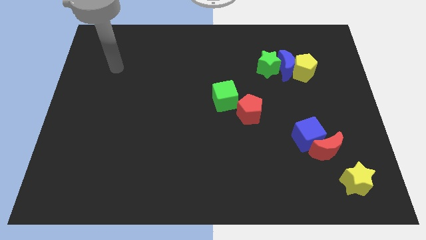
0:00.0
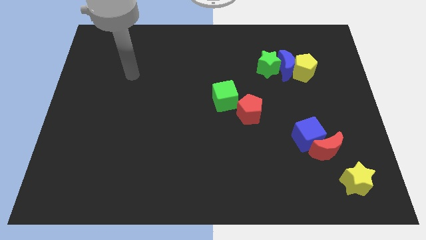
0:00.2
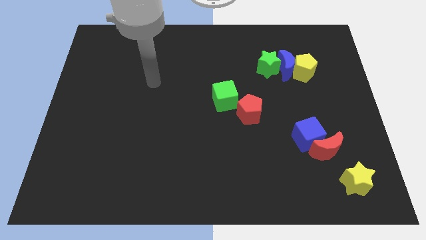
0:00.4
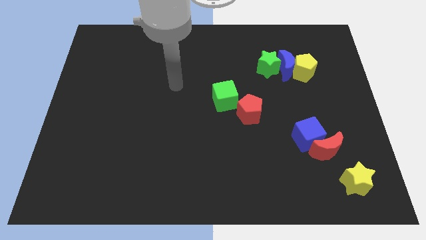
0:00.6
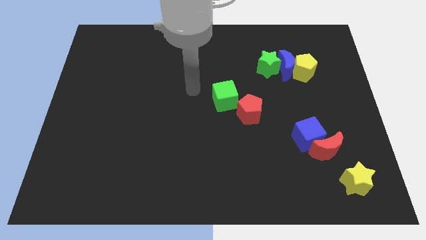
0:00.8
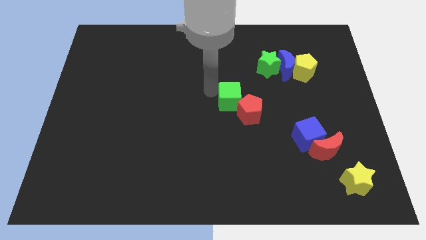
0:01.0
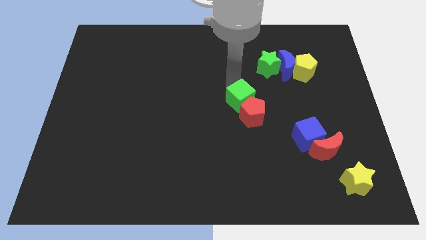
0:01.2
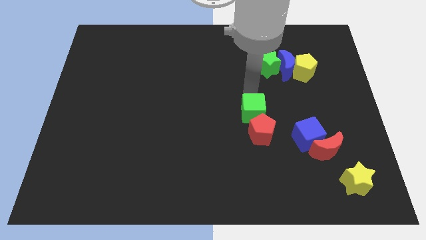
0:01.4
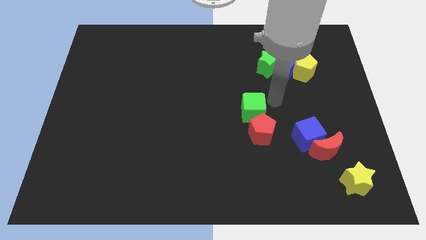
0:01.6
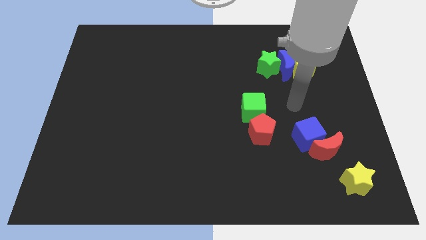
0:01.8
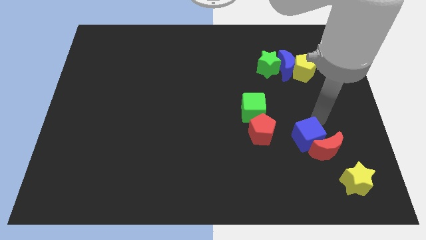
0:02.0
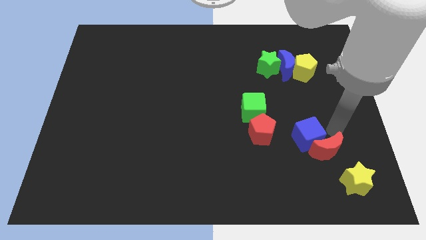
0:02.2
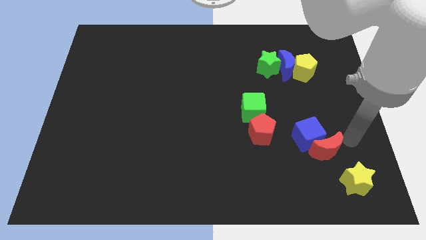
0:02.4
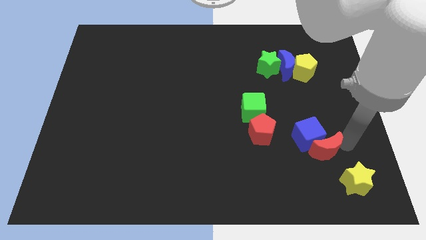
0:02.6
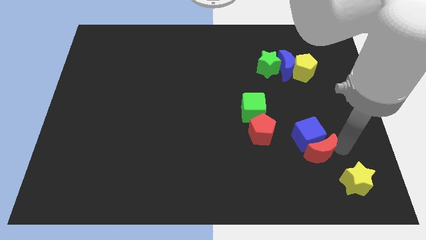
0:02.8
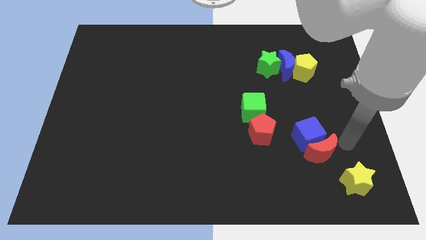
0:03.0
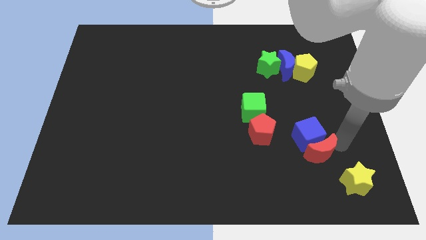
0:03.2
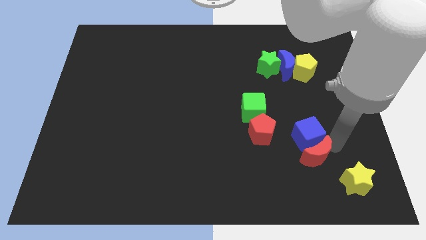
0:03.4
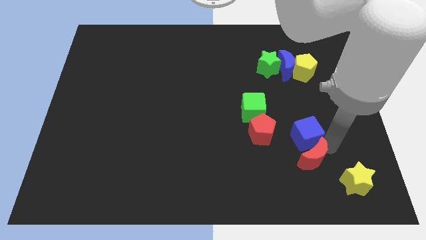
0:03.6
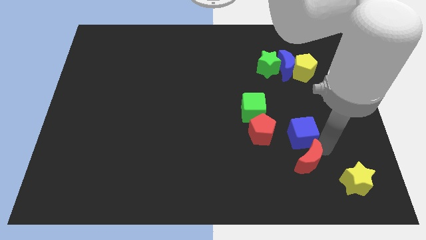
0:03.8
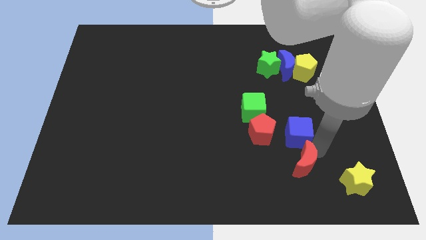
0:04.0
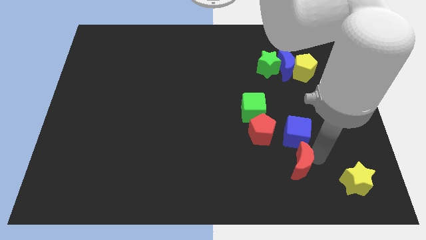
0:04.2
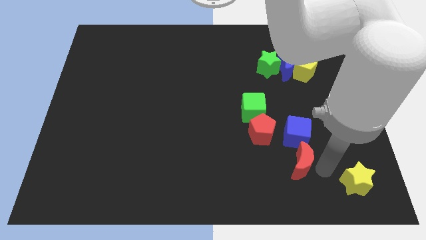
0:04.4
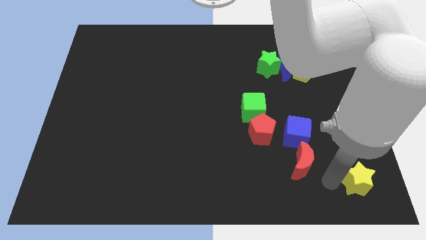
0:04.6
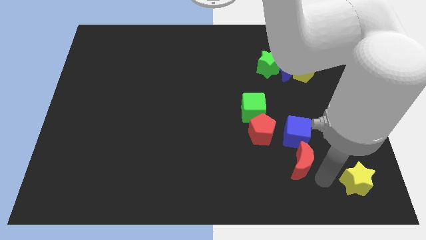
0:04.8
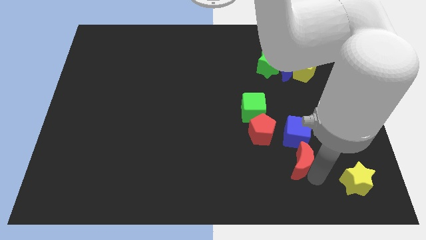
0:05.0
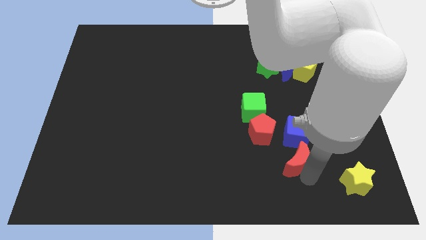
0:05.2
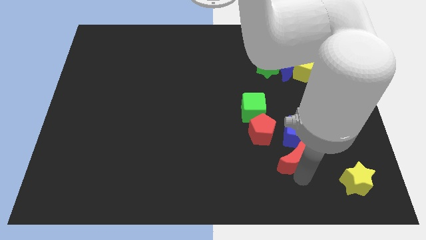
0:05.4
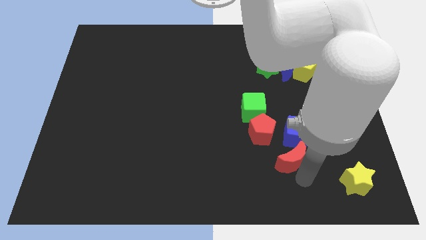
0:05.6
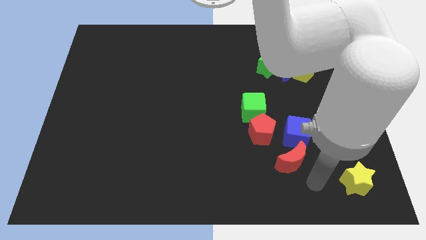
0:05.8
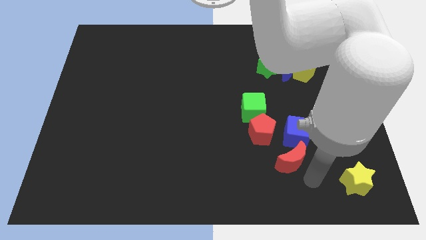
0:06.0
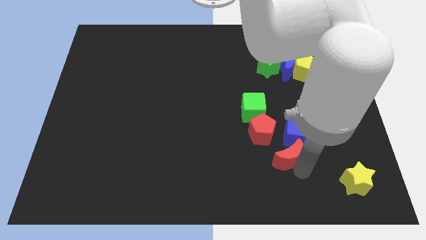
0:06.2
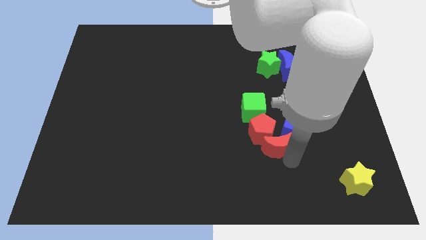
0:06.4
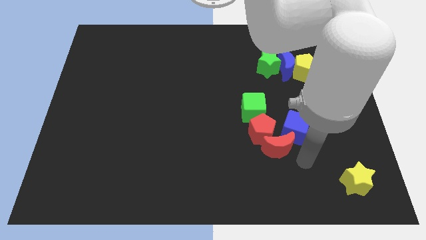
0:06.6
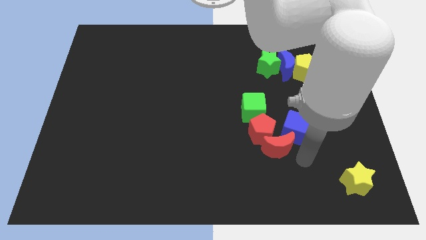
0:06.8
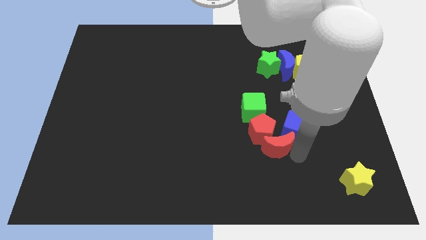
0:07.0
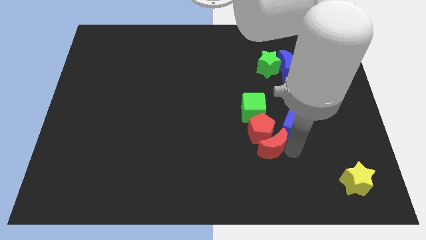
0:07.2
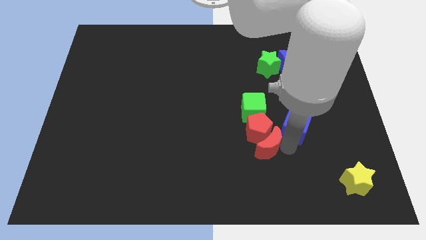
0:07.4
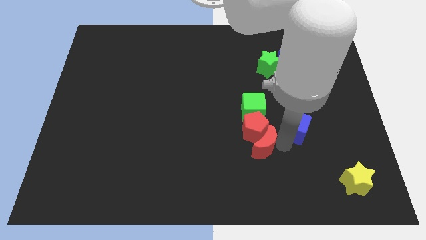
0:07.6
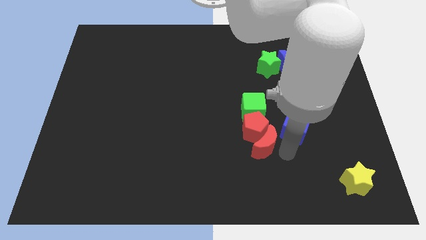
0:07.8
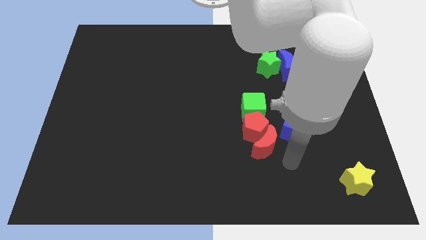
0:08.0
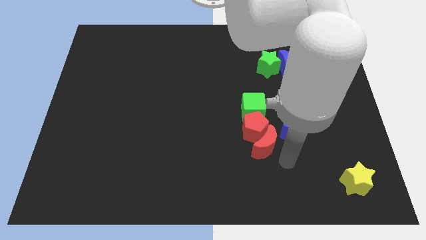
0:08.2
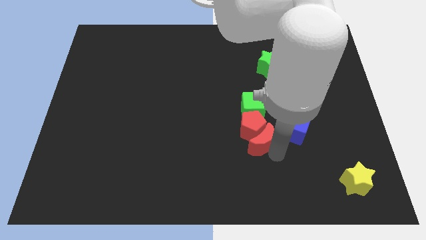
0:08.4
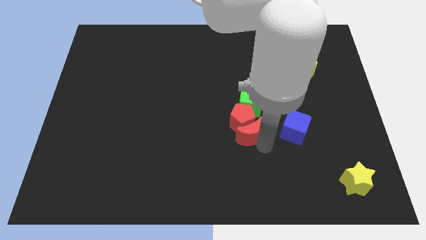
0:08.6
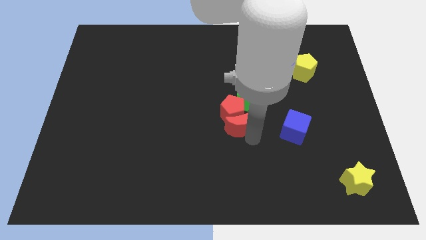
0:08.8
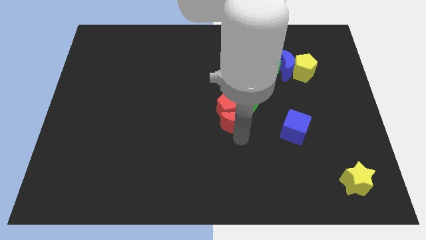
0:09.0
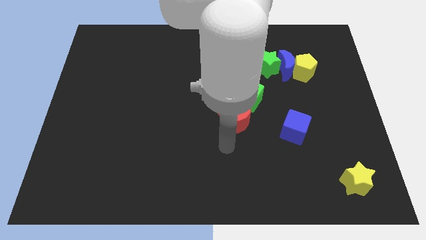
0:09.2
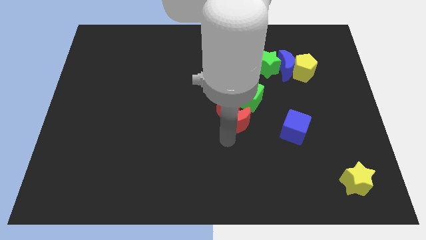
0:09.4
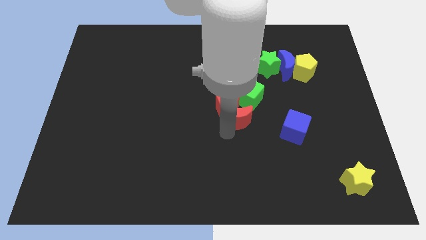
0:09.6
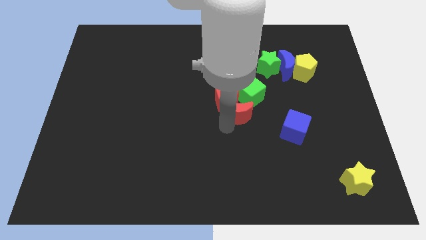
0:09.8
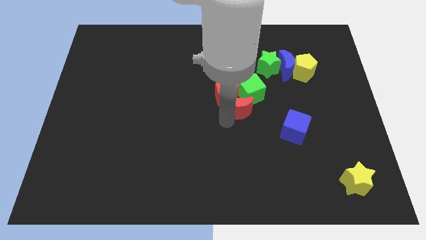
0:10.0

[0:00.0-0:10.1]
move the red moon next to the green cube

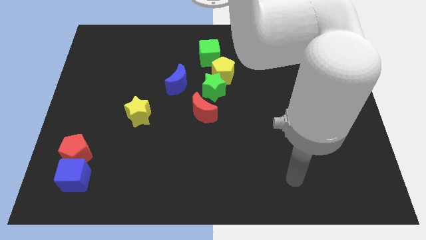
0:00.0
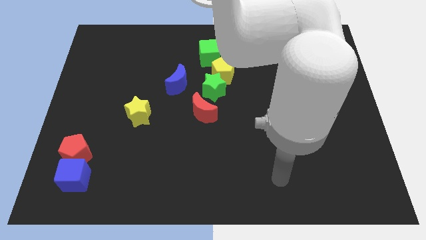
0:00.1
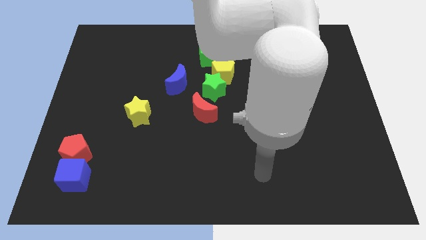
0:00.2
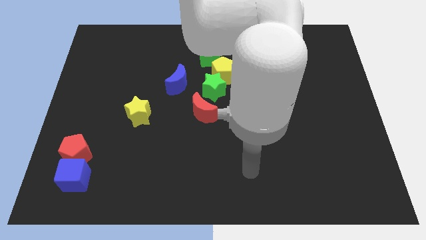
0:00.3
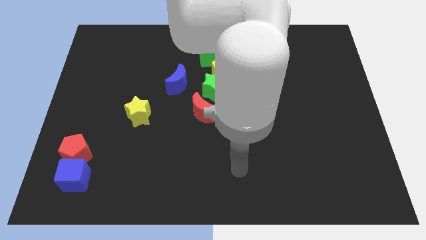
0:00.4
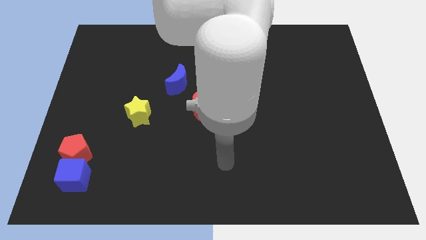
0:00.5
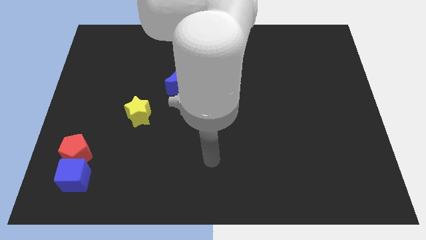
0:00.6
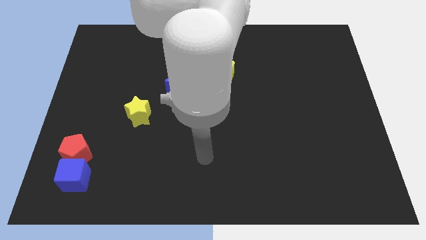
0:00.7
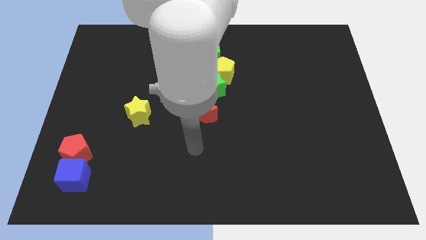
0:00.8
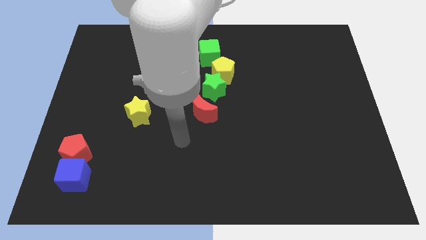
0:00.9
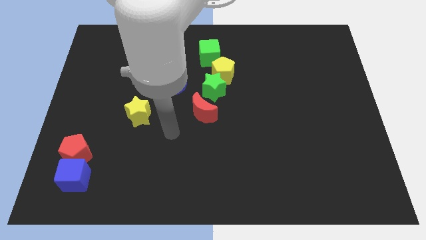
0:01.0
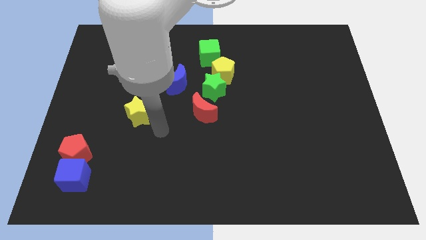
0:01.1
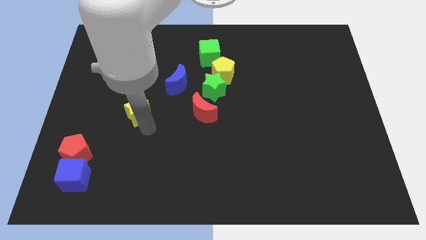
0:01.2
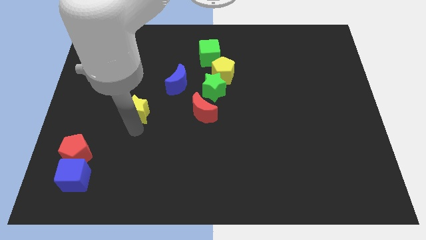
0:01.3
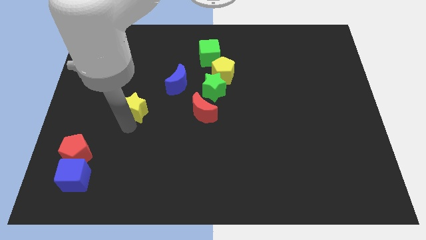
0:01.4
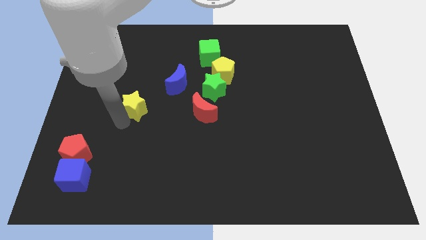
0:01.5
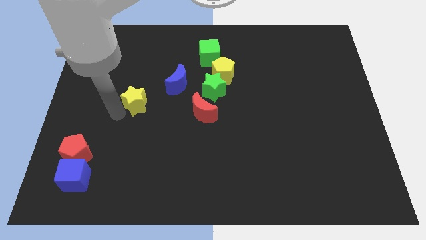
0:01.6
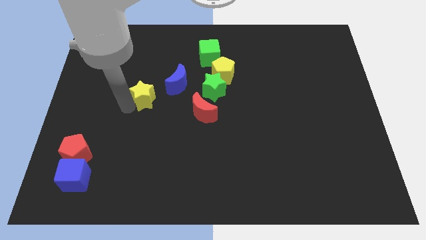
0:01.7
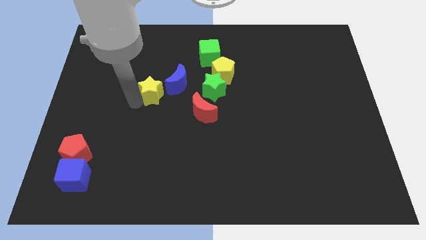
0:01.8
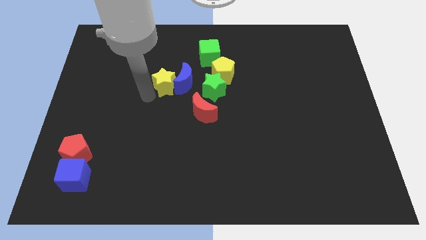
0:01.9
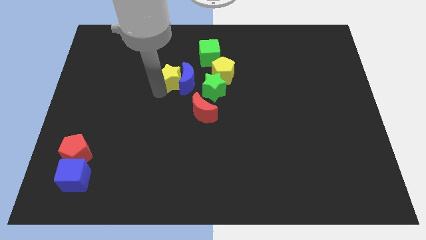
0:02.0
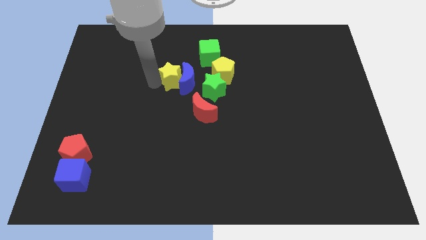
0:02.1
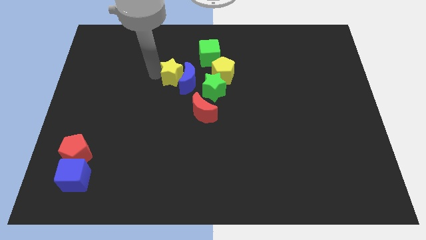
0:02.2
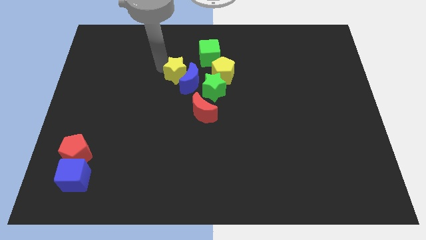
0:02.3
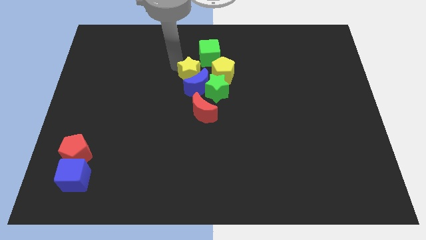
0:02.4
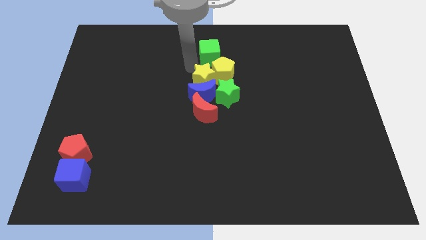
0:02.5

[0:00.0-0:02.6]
slide the blue moon to the red moon

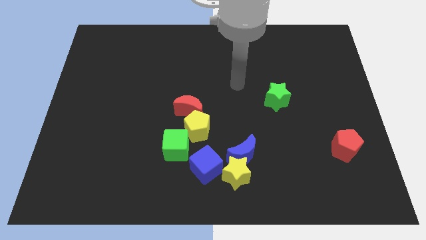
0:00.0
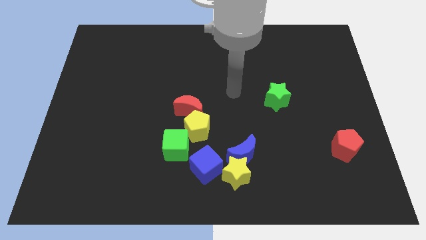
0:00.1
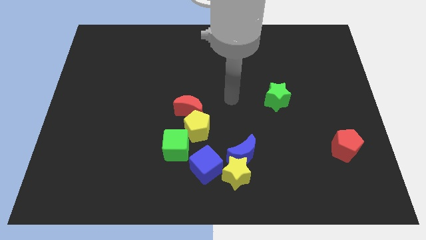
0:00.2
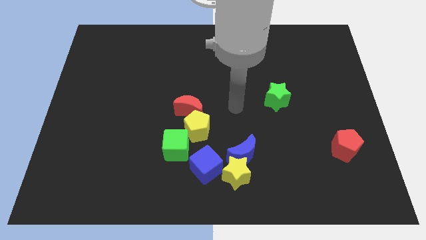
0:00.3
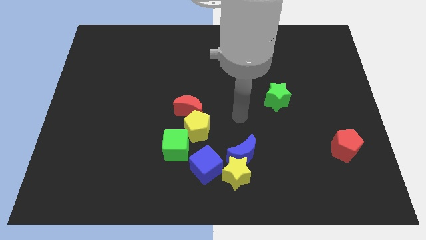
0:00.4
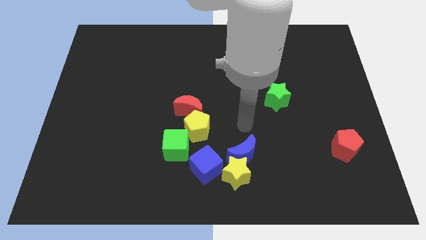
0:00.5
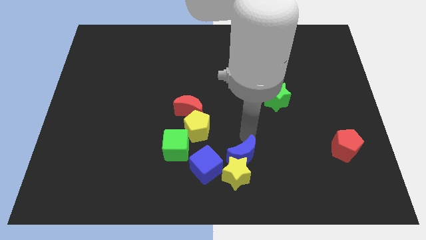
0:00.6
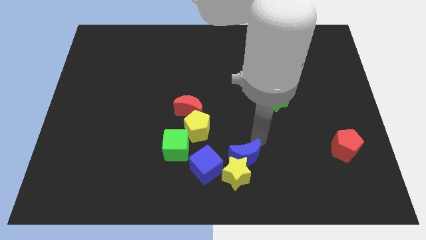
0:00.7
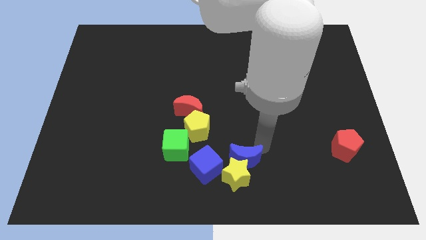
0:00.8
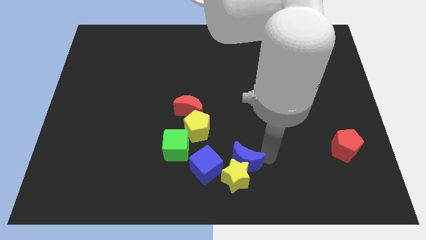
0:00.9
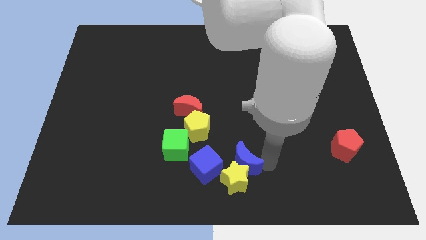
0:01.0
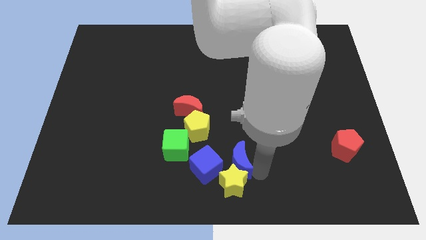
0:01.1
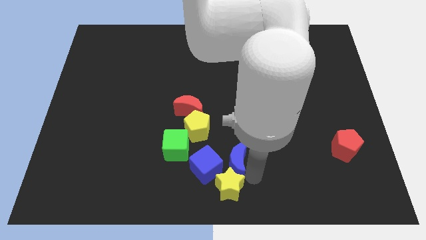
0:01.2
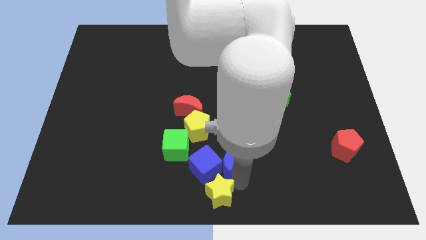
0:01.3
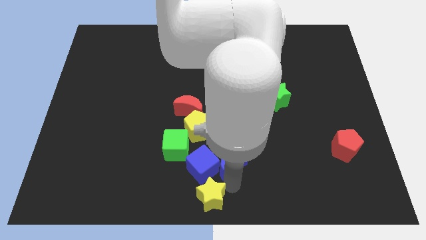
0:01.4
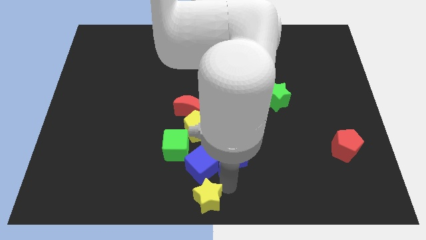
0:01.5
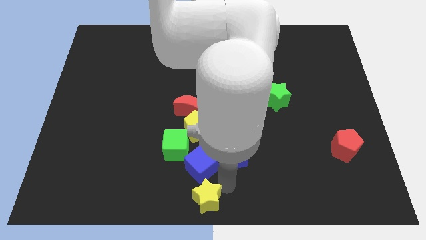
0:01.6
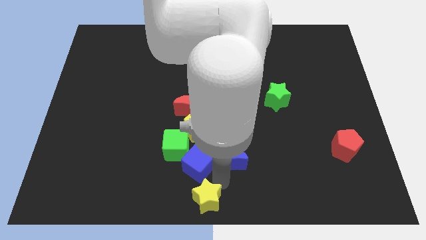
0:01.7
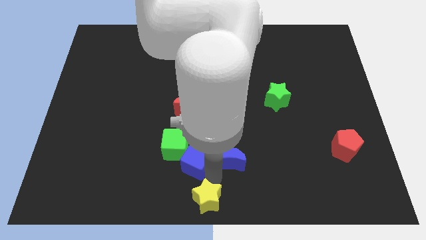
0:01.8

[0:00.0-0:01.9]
move the blue cube towards the green cube
